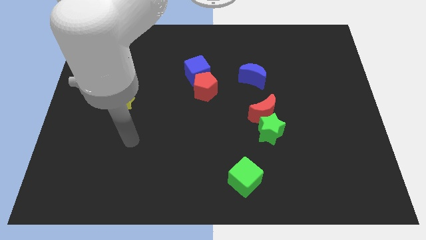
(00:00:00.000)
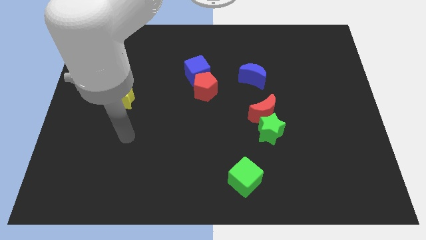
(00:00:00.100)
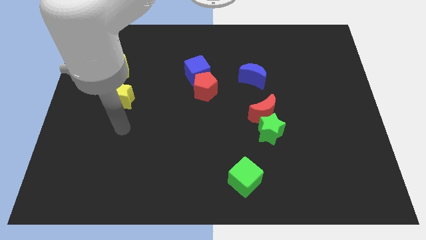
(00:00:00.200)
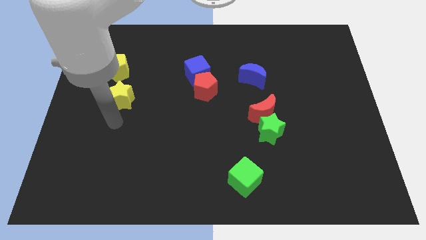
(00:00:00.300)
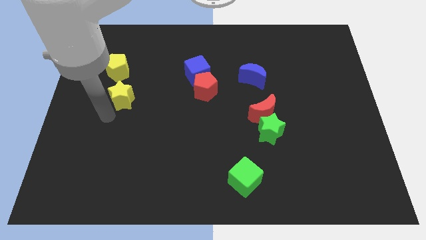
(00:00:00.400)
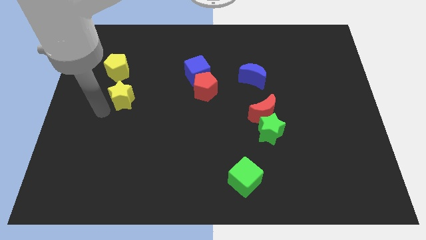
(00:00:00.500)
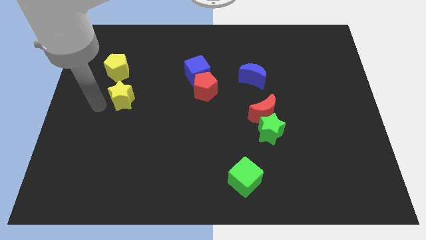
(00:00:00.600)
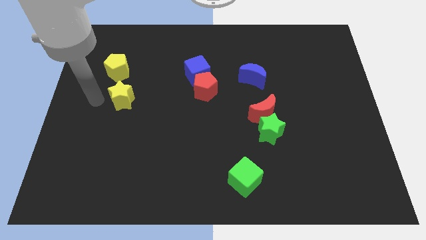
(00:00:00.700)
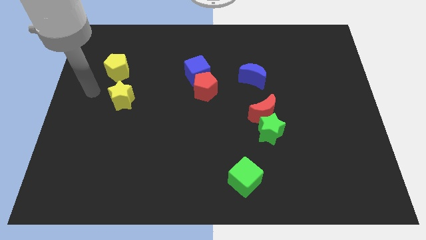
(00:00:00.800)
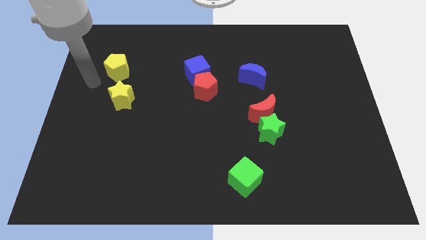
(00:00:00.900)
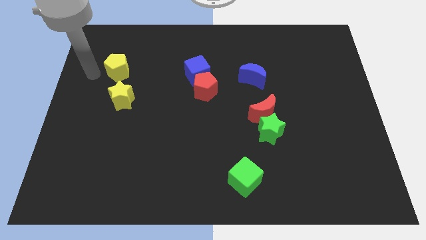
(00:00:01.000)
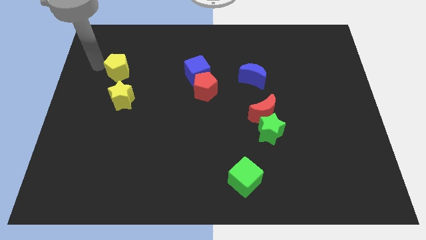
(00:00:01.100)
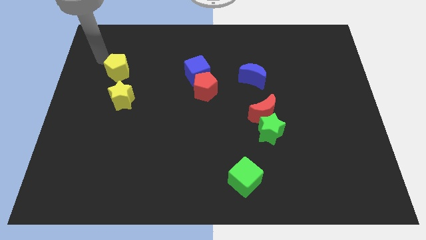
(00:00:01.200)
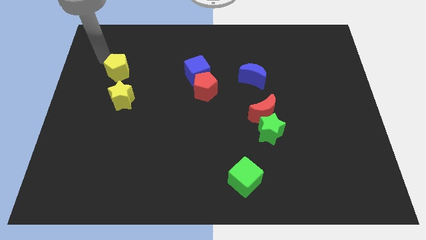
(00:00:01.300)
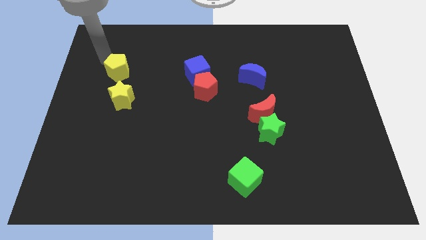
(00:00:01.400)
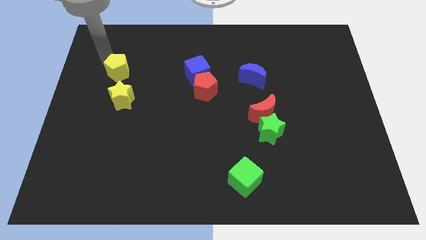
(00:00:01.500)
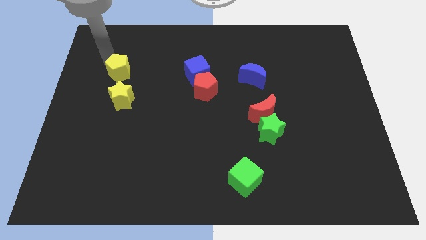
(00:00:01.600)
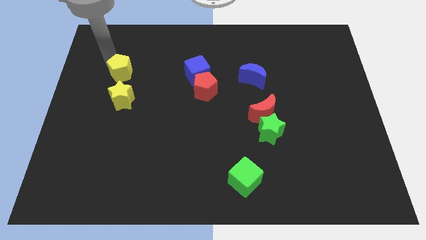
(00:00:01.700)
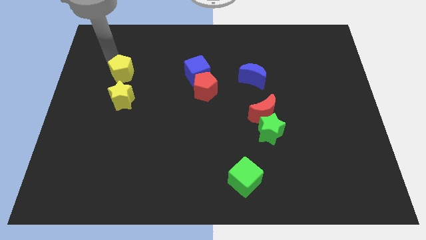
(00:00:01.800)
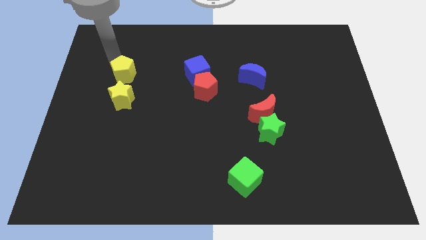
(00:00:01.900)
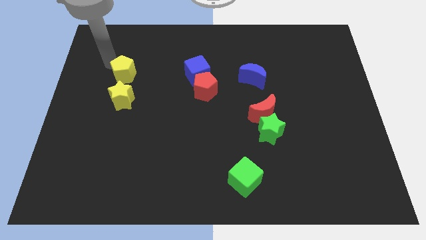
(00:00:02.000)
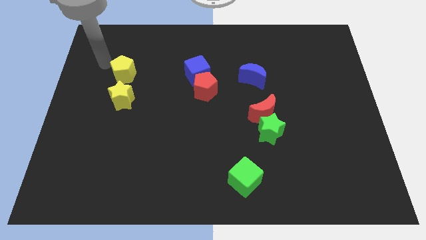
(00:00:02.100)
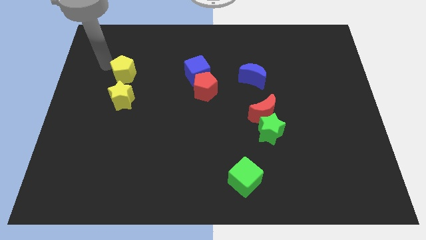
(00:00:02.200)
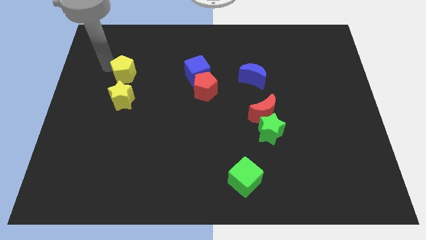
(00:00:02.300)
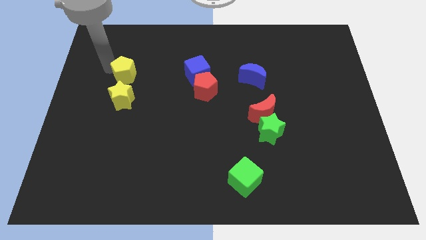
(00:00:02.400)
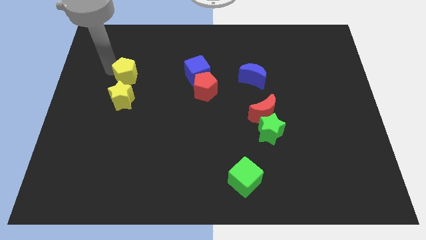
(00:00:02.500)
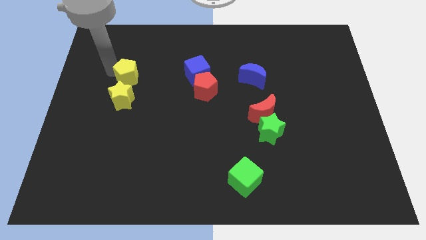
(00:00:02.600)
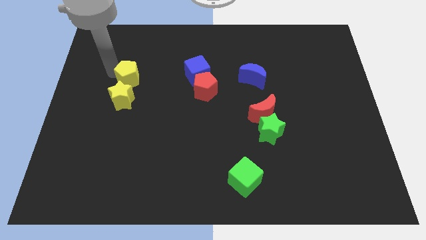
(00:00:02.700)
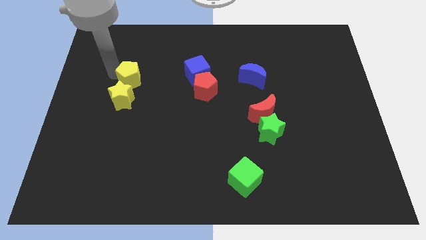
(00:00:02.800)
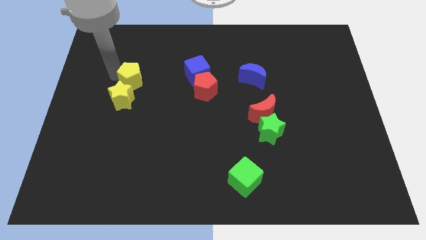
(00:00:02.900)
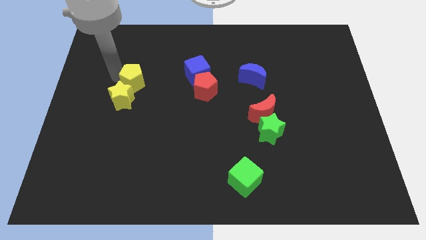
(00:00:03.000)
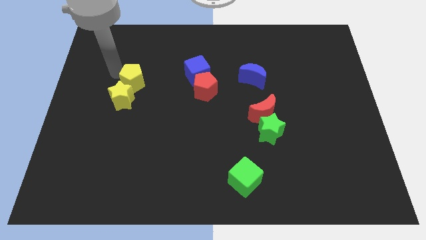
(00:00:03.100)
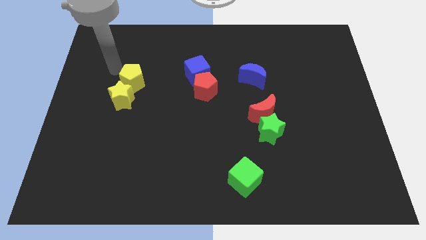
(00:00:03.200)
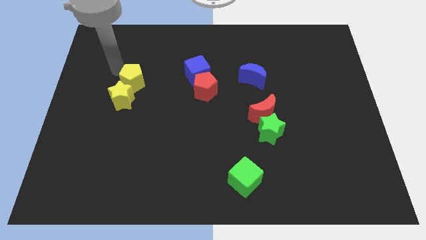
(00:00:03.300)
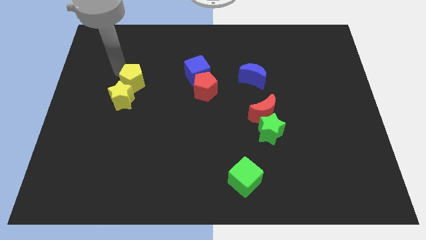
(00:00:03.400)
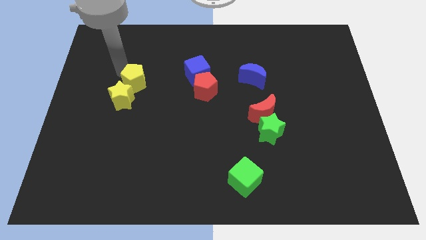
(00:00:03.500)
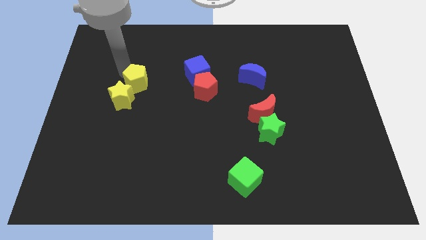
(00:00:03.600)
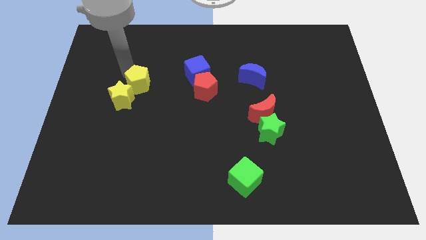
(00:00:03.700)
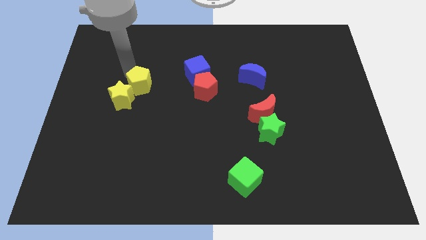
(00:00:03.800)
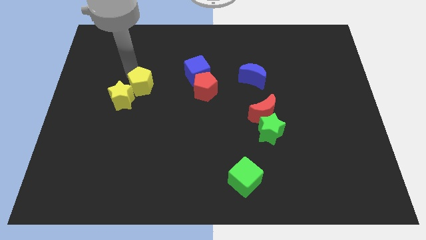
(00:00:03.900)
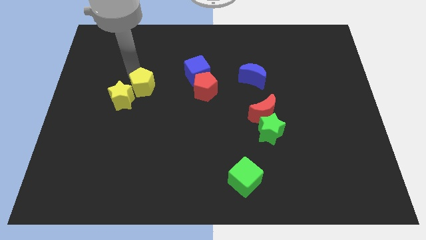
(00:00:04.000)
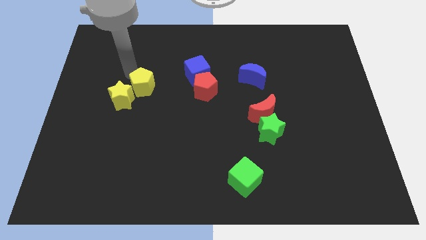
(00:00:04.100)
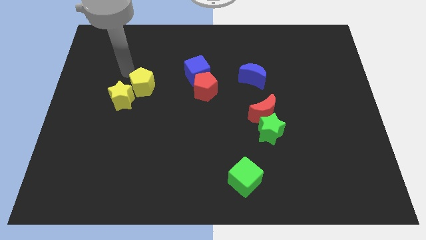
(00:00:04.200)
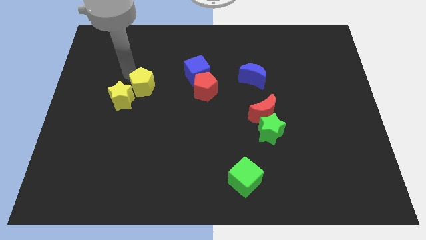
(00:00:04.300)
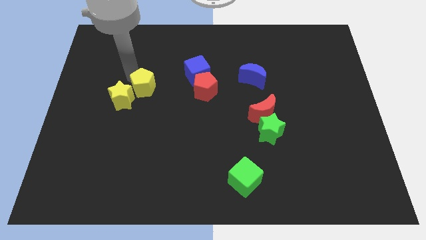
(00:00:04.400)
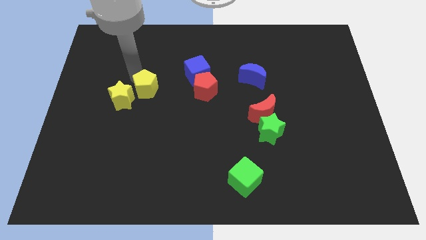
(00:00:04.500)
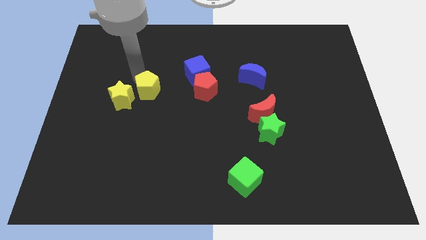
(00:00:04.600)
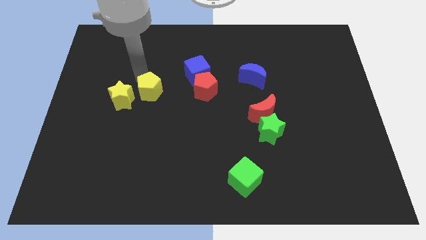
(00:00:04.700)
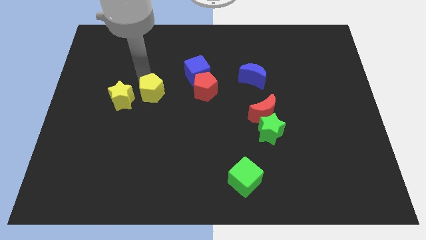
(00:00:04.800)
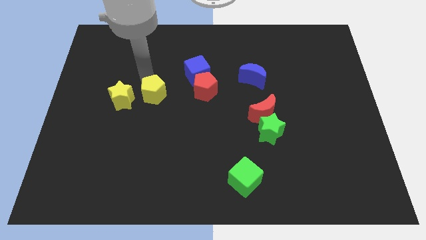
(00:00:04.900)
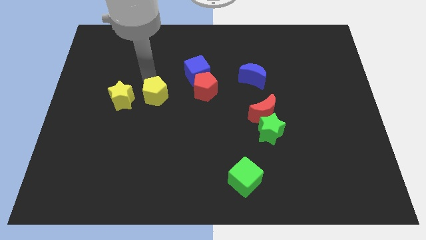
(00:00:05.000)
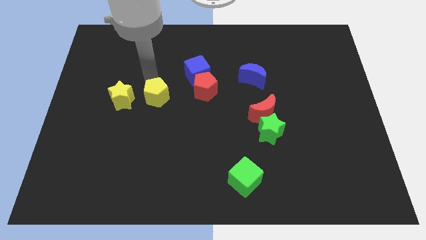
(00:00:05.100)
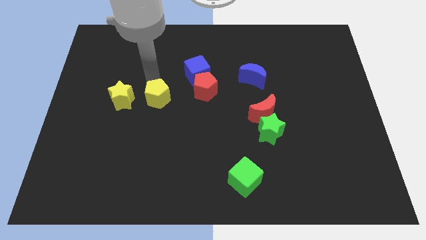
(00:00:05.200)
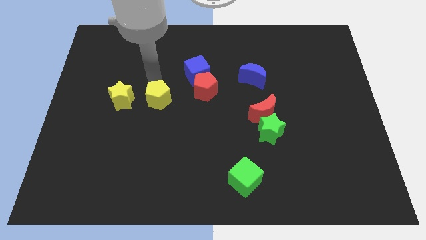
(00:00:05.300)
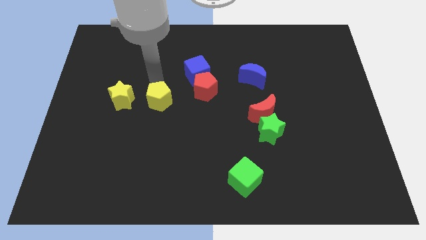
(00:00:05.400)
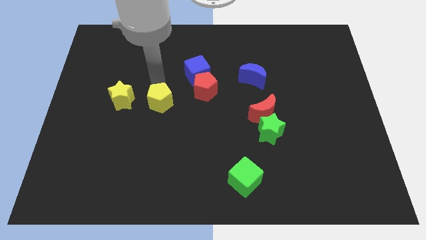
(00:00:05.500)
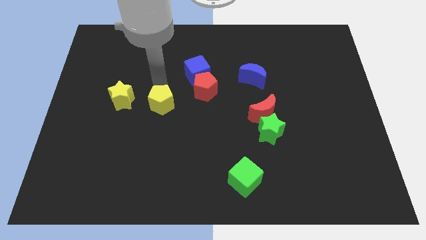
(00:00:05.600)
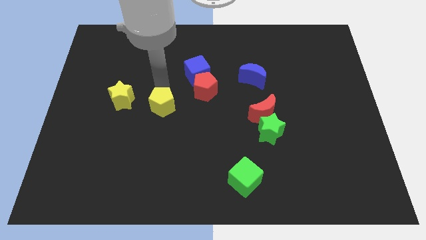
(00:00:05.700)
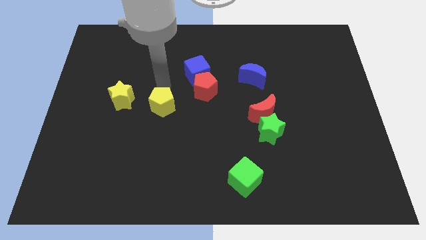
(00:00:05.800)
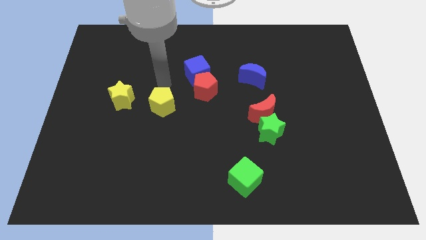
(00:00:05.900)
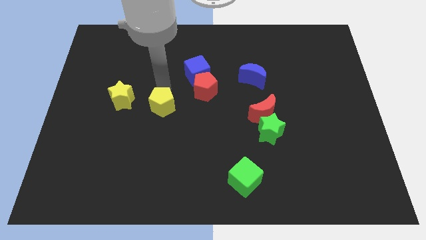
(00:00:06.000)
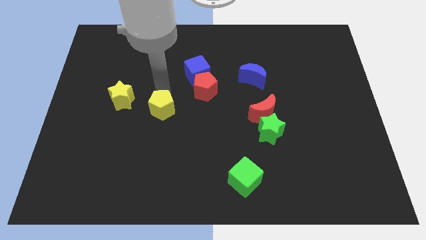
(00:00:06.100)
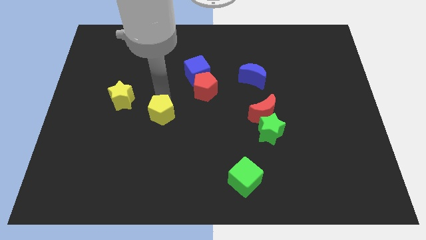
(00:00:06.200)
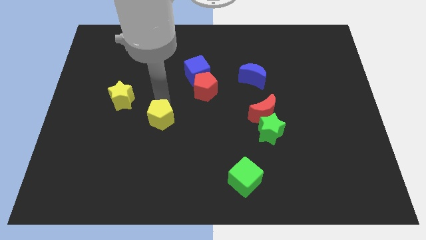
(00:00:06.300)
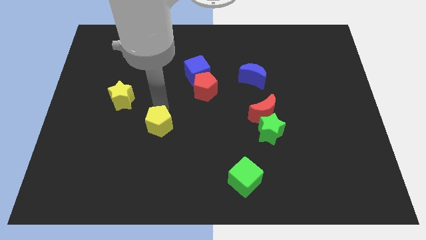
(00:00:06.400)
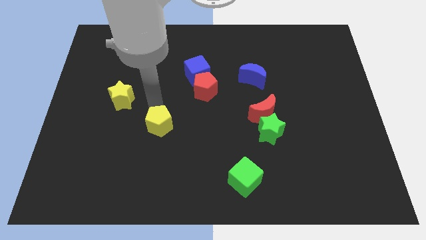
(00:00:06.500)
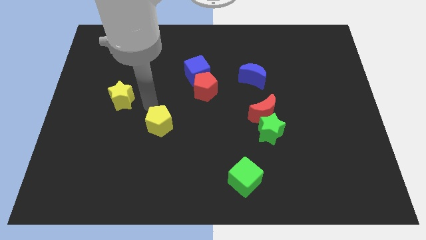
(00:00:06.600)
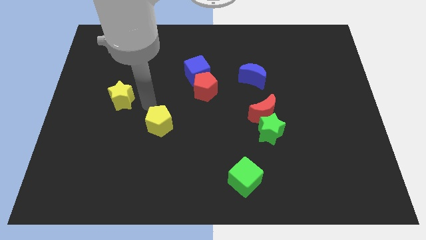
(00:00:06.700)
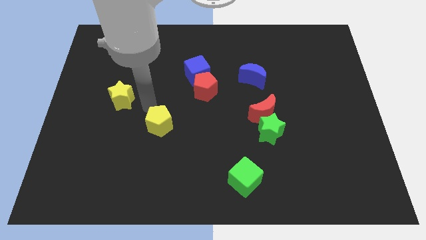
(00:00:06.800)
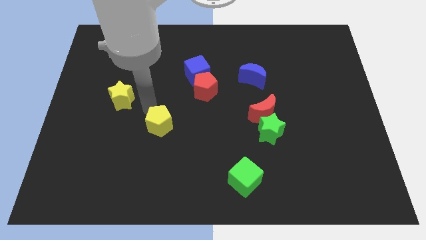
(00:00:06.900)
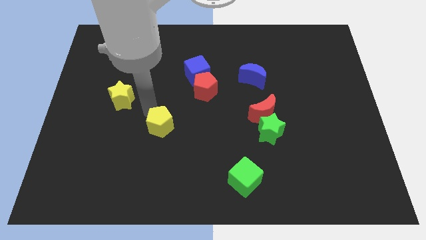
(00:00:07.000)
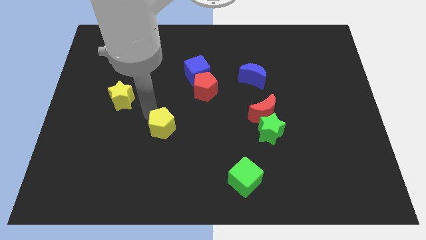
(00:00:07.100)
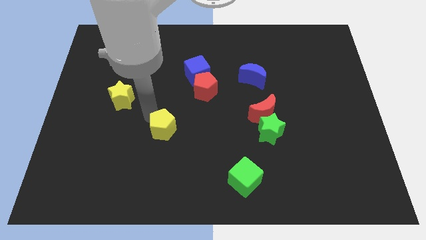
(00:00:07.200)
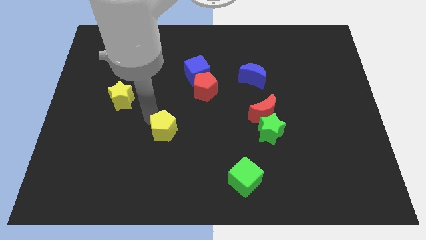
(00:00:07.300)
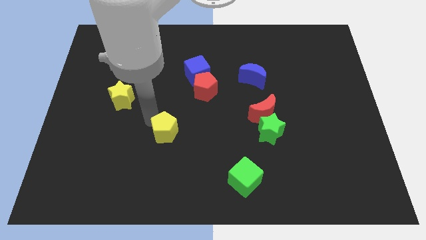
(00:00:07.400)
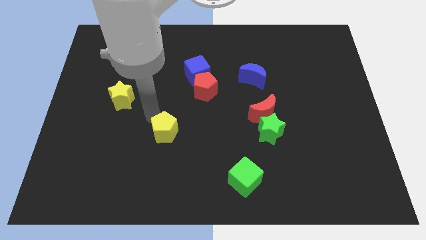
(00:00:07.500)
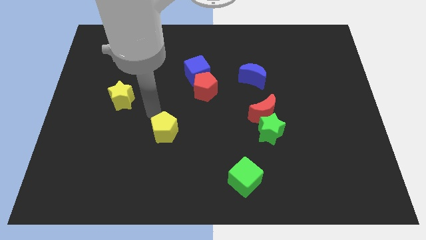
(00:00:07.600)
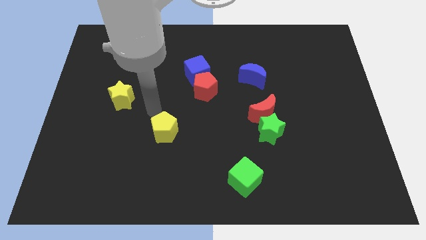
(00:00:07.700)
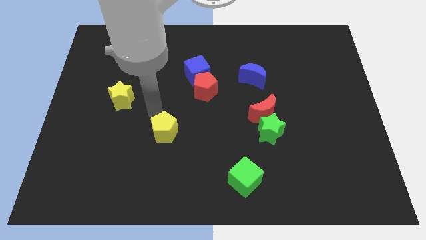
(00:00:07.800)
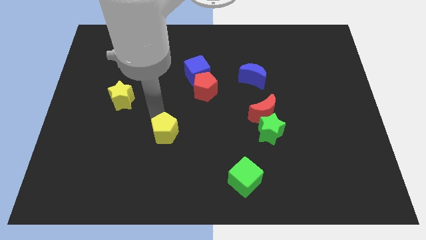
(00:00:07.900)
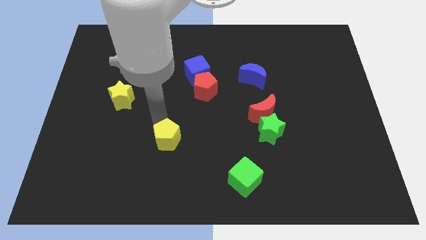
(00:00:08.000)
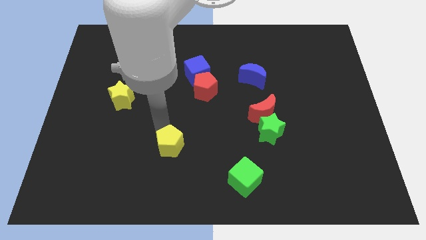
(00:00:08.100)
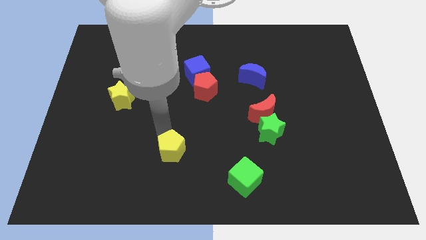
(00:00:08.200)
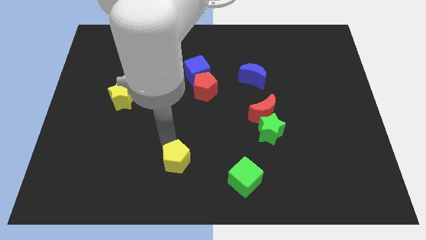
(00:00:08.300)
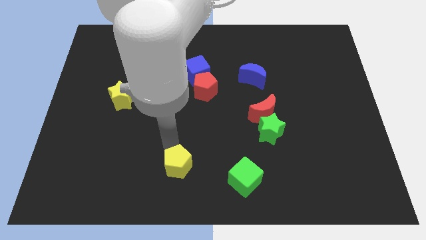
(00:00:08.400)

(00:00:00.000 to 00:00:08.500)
move the yellow pentagon to the bottom side
